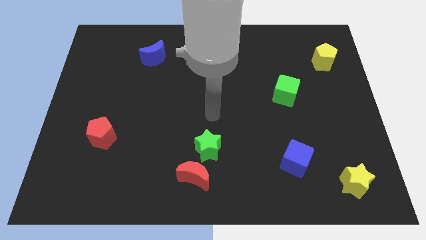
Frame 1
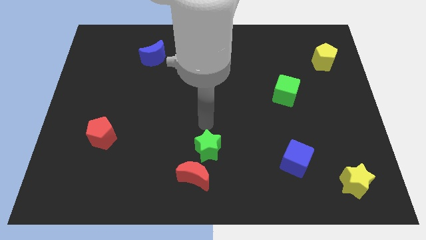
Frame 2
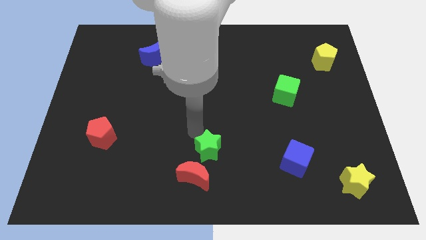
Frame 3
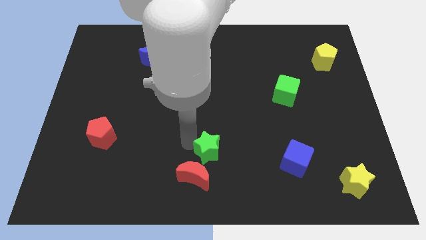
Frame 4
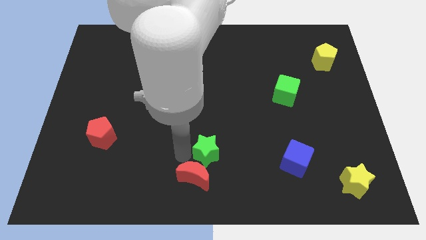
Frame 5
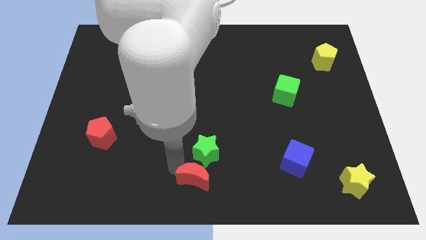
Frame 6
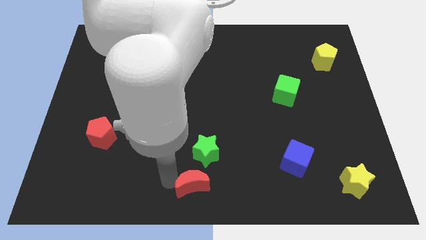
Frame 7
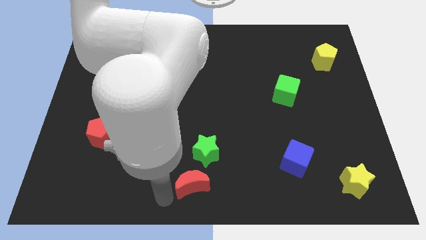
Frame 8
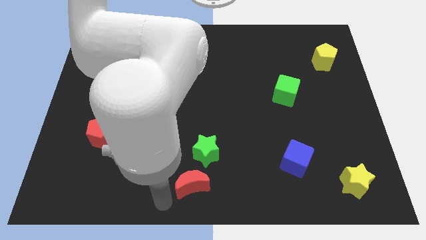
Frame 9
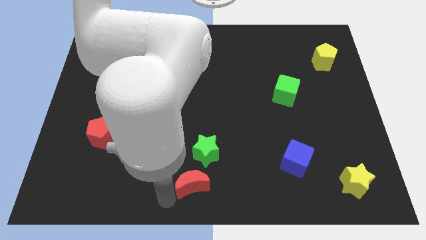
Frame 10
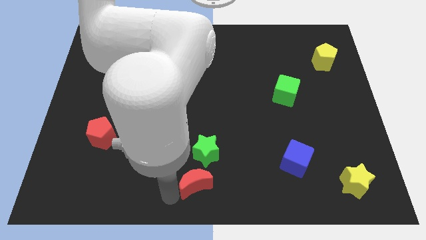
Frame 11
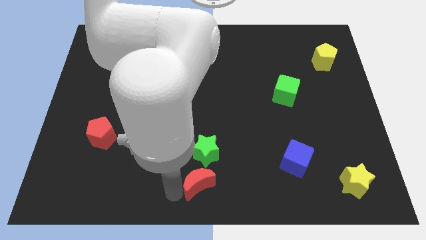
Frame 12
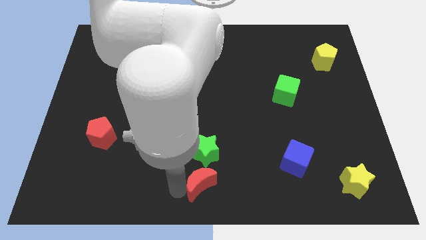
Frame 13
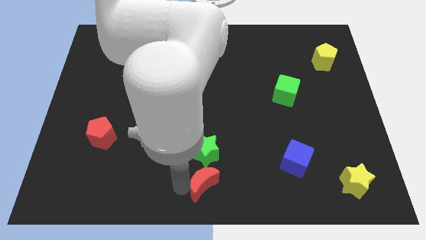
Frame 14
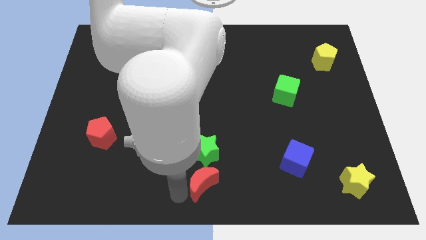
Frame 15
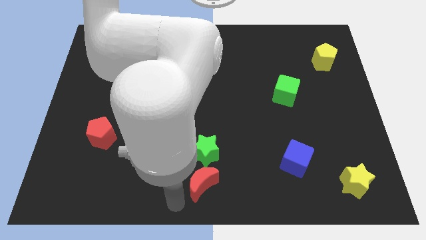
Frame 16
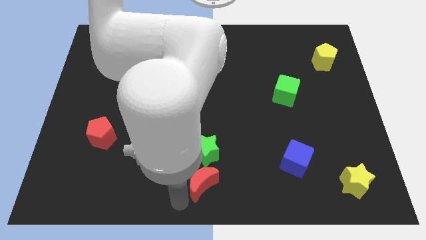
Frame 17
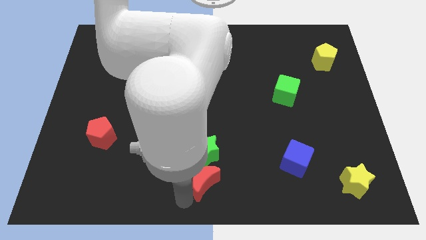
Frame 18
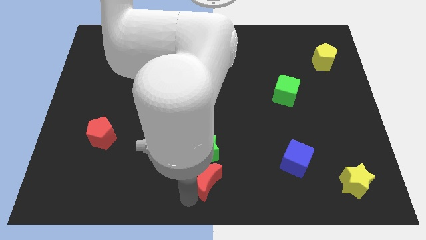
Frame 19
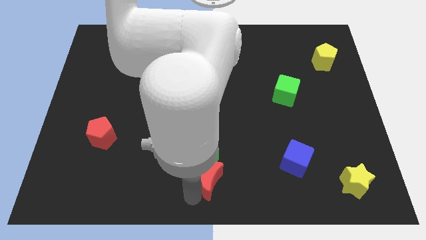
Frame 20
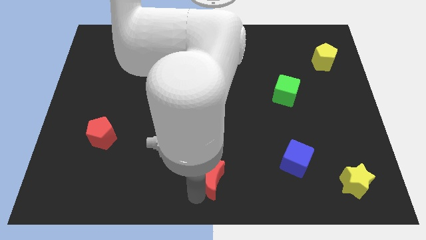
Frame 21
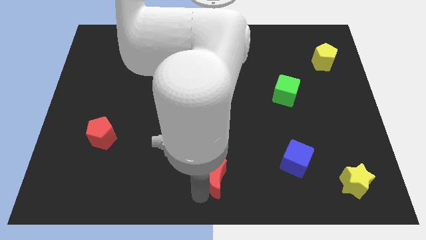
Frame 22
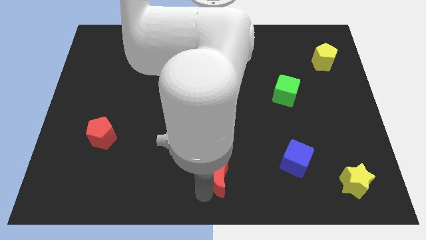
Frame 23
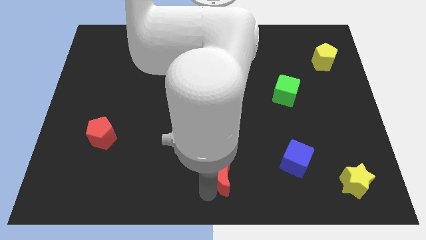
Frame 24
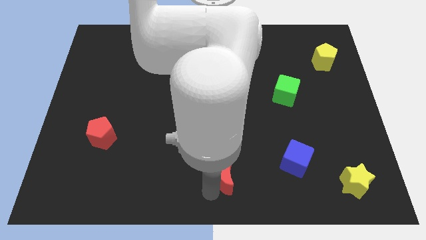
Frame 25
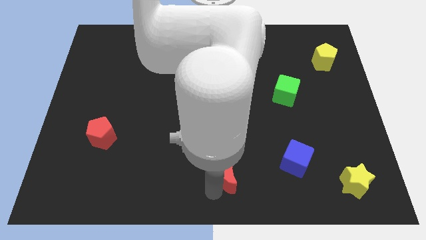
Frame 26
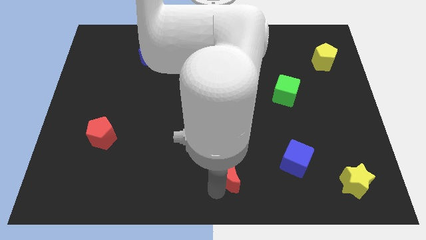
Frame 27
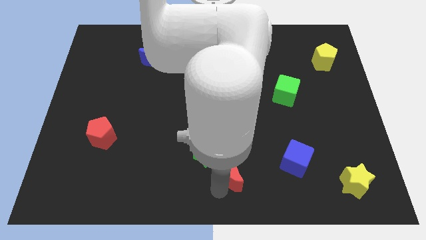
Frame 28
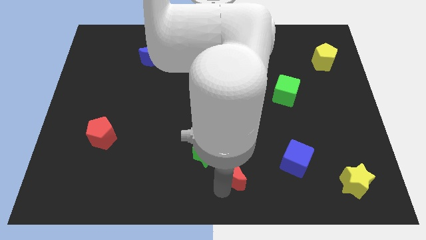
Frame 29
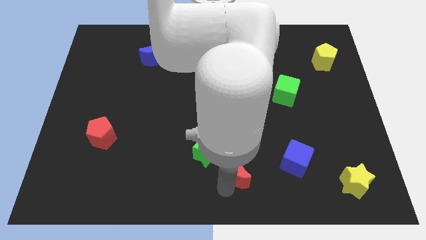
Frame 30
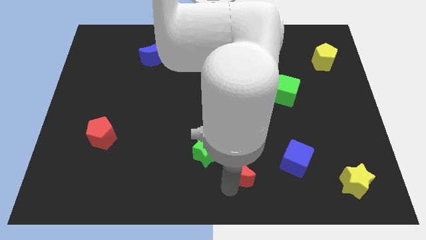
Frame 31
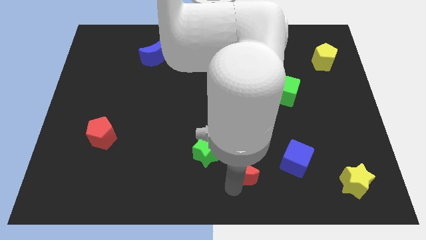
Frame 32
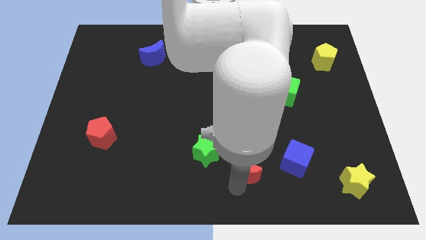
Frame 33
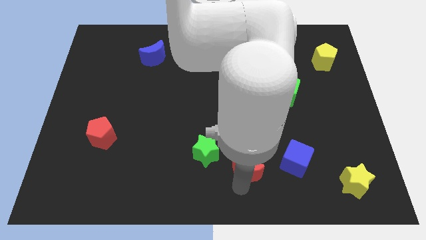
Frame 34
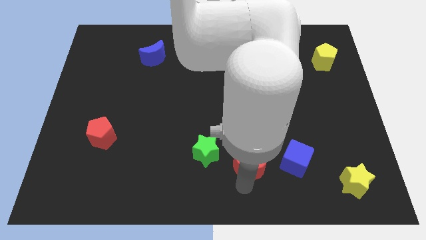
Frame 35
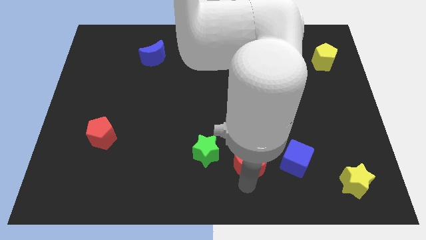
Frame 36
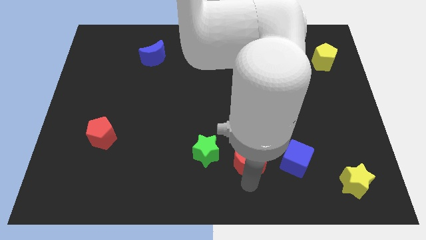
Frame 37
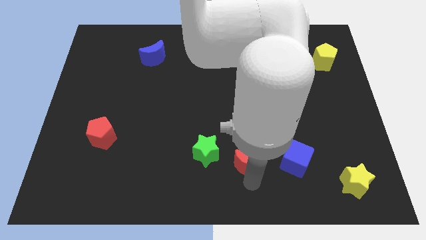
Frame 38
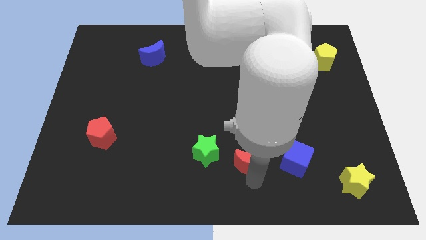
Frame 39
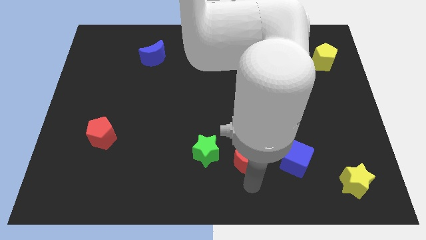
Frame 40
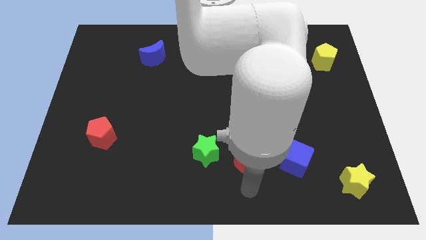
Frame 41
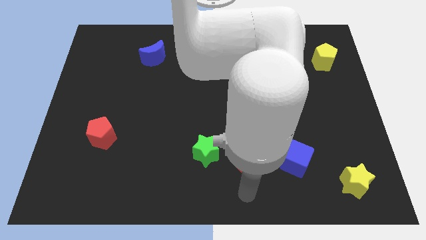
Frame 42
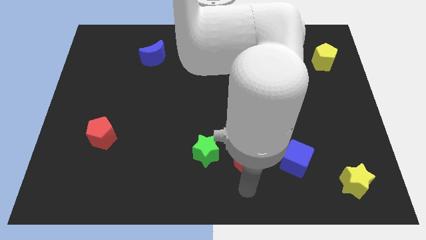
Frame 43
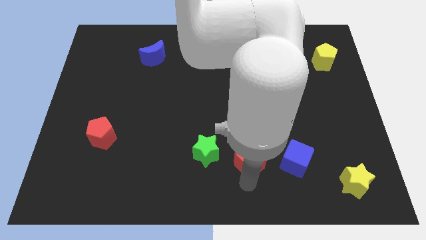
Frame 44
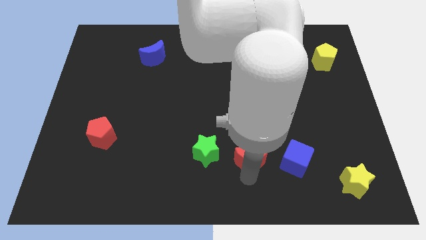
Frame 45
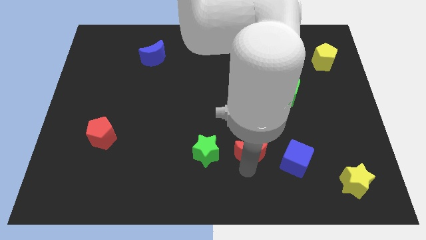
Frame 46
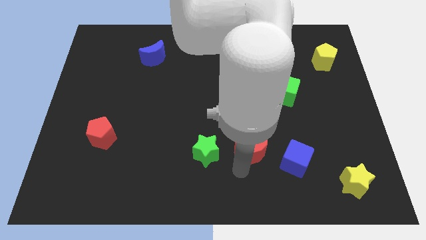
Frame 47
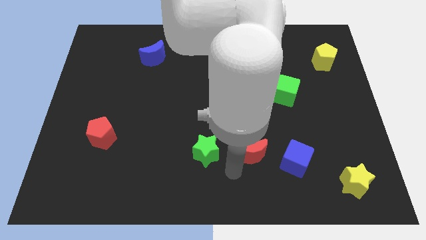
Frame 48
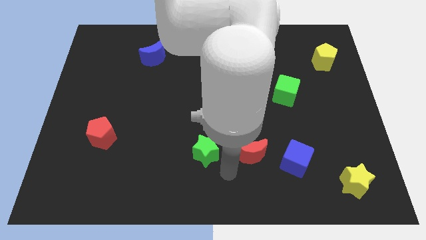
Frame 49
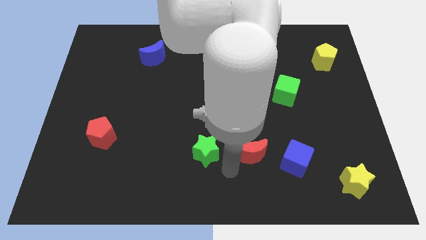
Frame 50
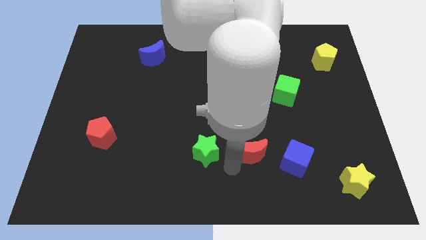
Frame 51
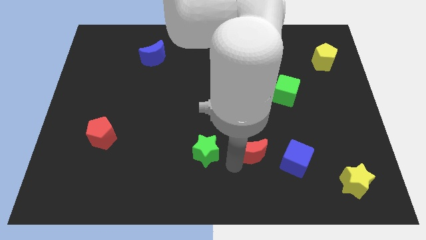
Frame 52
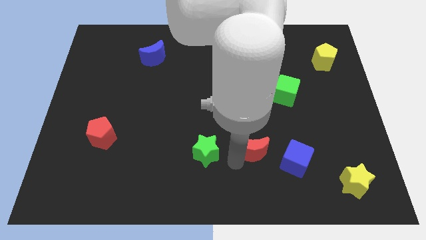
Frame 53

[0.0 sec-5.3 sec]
put the red moon diagonally up and to the left of the blue cube

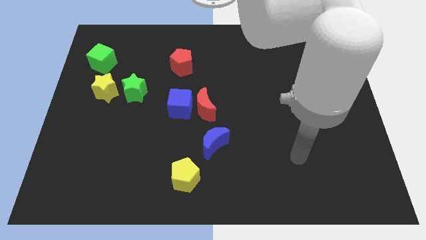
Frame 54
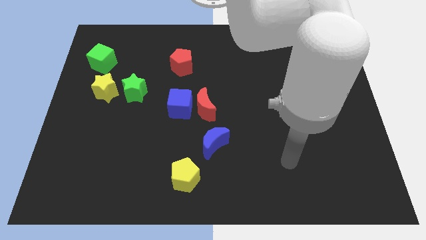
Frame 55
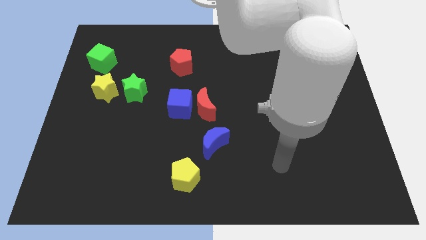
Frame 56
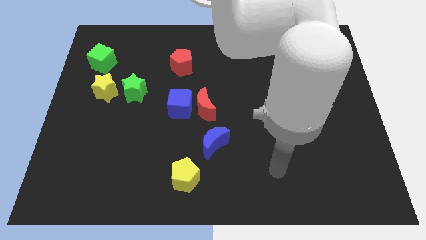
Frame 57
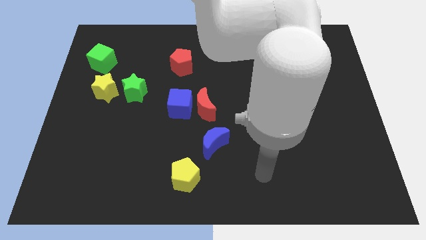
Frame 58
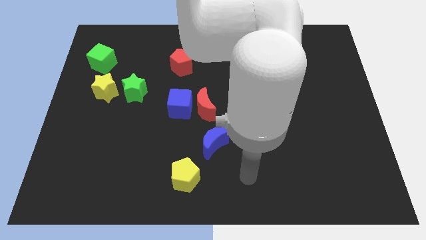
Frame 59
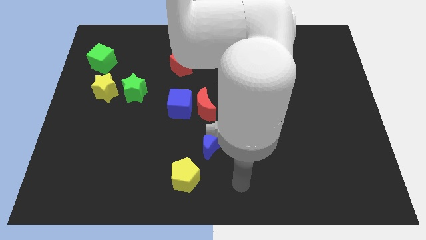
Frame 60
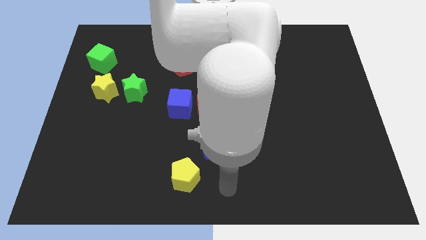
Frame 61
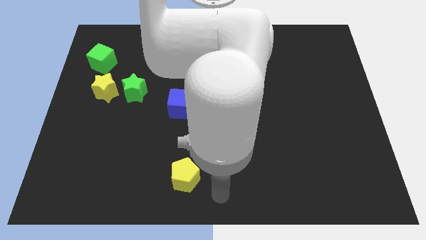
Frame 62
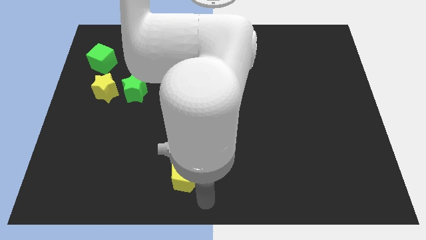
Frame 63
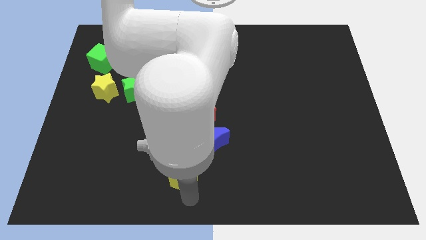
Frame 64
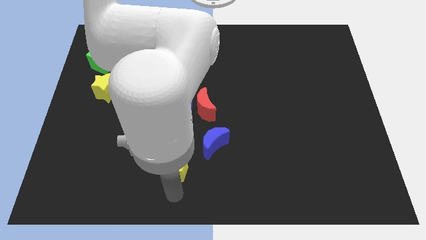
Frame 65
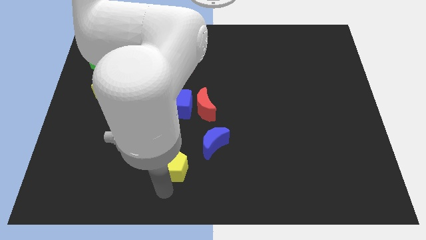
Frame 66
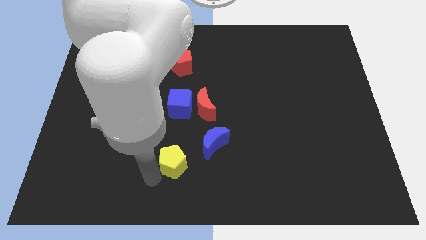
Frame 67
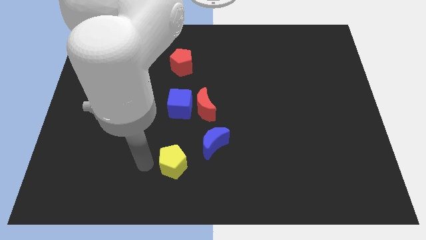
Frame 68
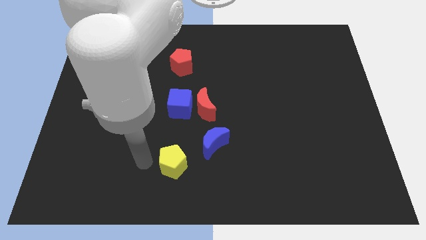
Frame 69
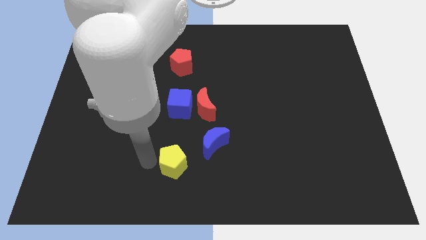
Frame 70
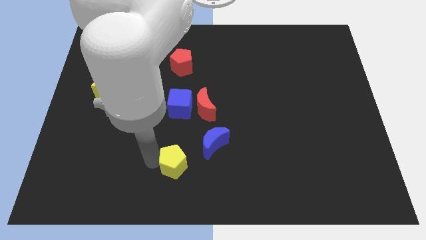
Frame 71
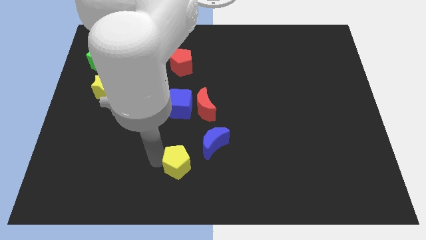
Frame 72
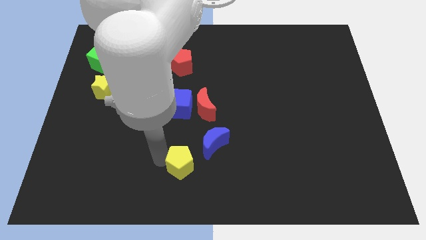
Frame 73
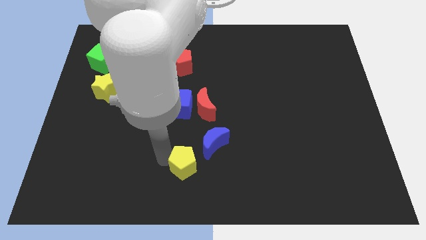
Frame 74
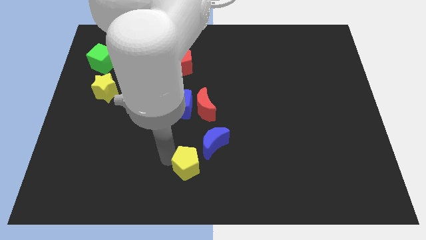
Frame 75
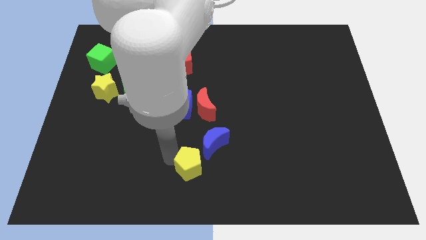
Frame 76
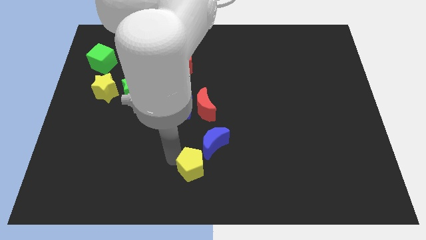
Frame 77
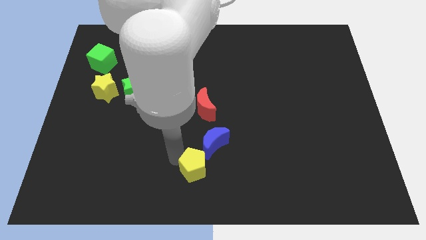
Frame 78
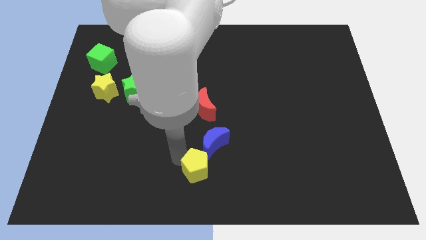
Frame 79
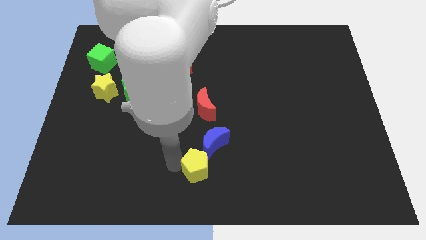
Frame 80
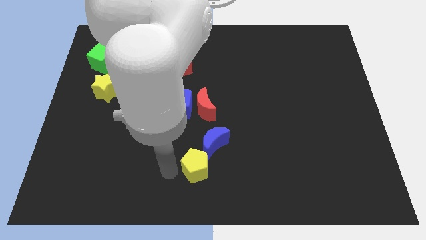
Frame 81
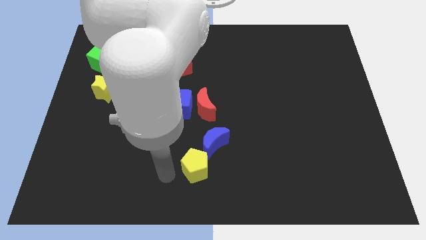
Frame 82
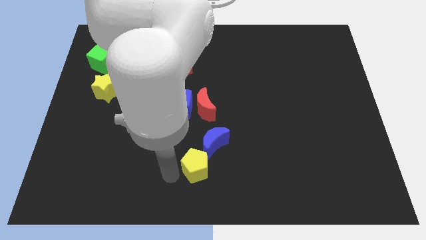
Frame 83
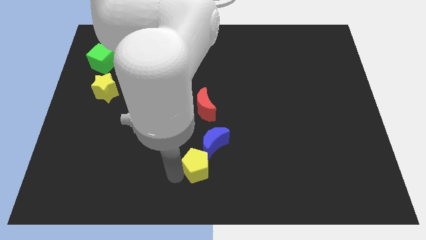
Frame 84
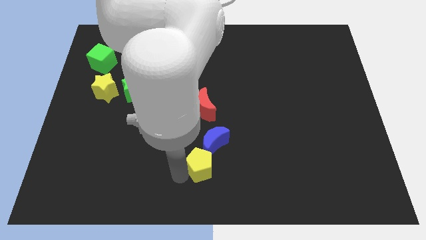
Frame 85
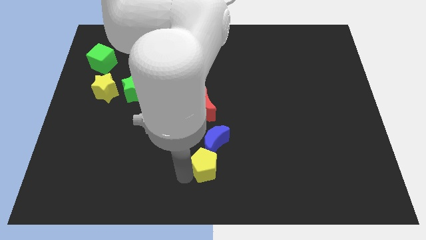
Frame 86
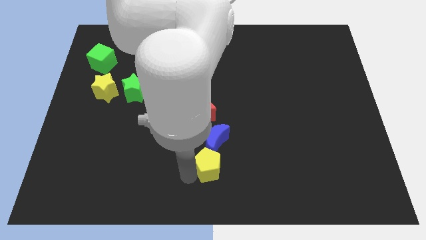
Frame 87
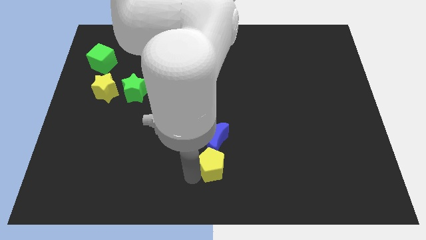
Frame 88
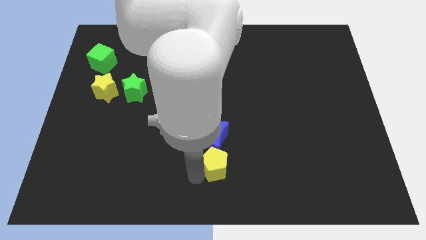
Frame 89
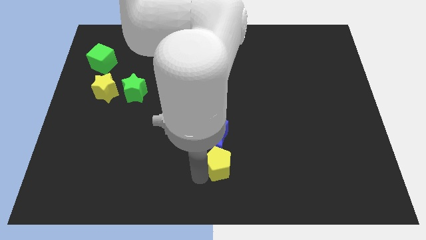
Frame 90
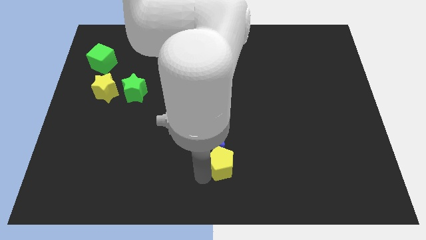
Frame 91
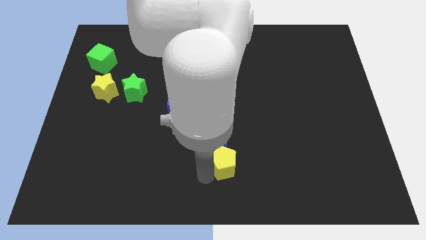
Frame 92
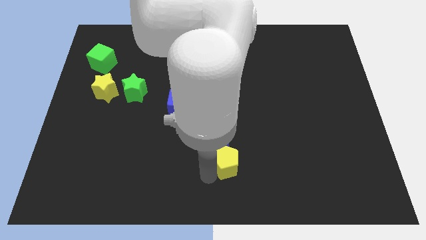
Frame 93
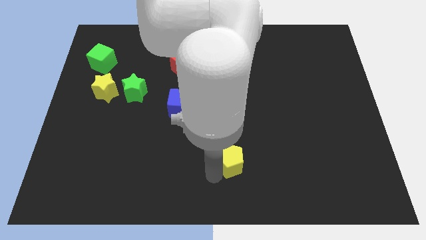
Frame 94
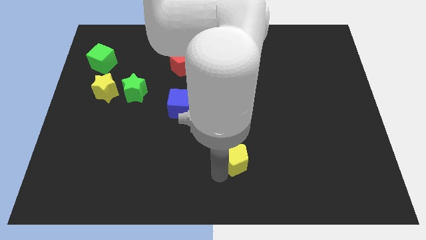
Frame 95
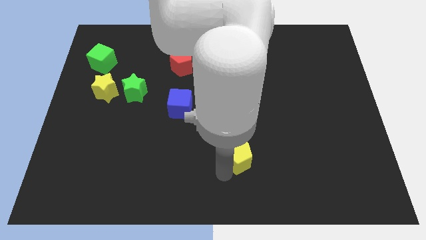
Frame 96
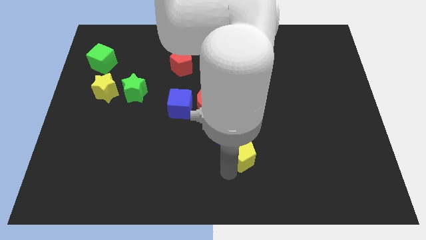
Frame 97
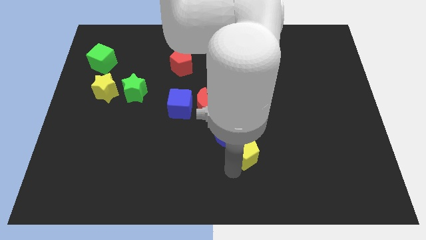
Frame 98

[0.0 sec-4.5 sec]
move the yellow pentagon just right of the blue moon
